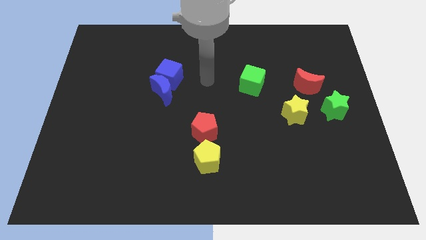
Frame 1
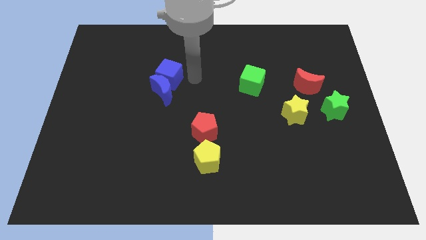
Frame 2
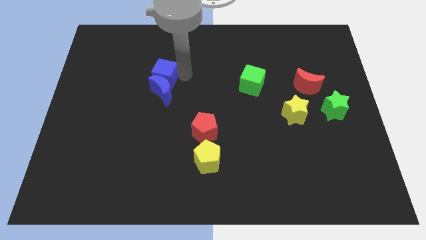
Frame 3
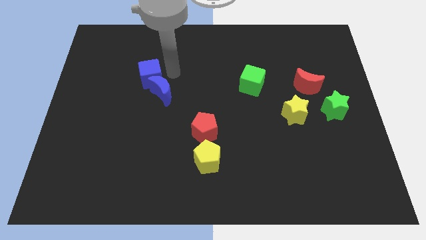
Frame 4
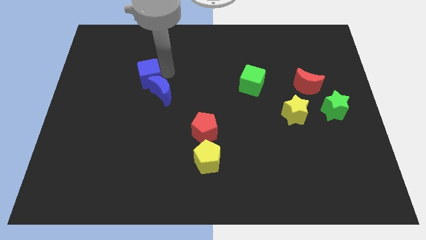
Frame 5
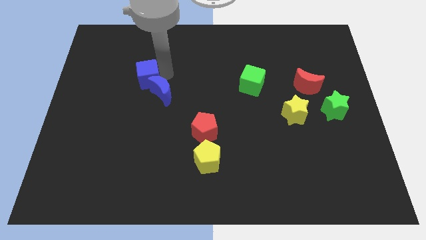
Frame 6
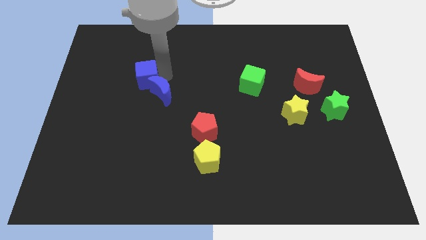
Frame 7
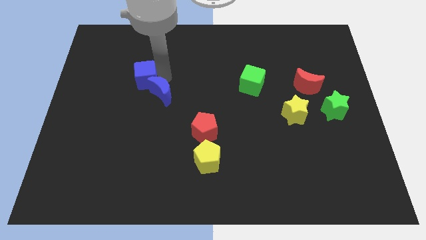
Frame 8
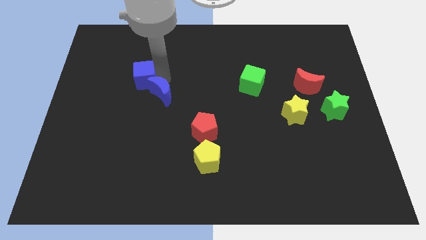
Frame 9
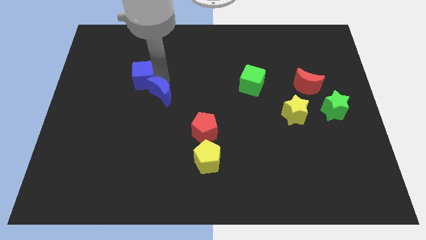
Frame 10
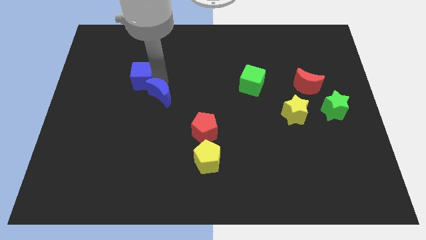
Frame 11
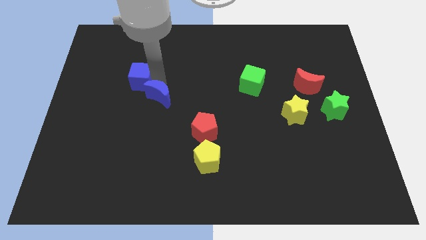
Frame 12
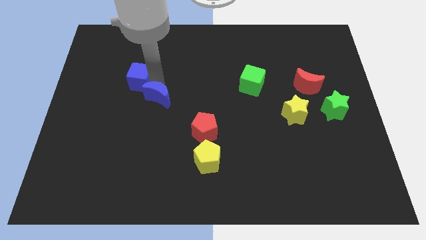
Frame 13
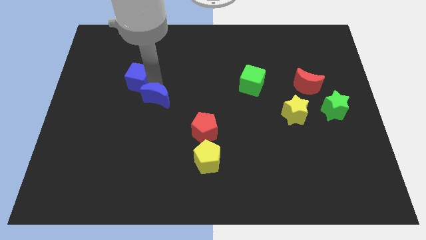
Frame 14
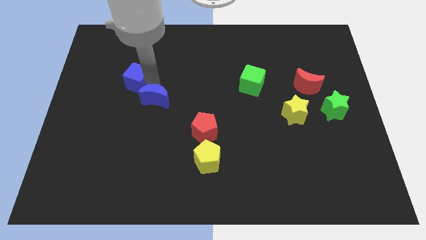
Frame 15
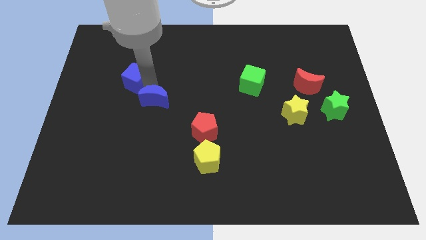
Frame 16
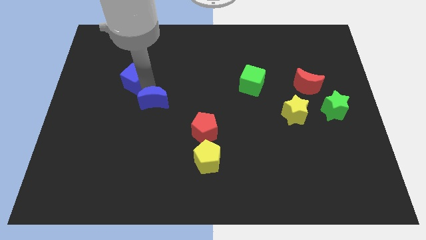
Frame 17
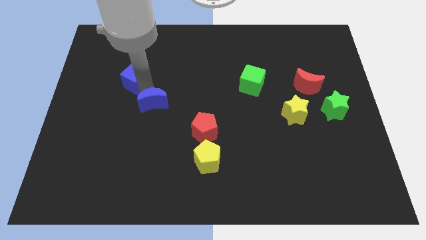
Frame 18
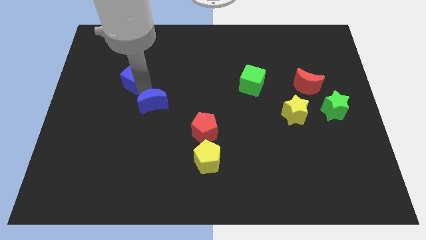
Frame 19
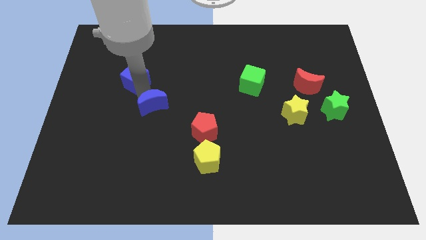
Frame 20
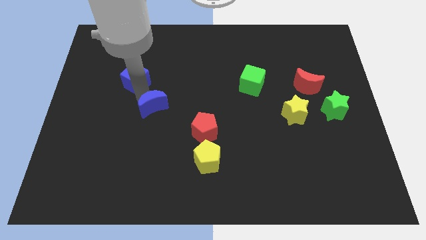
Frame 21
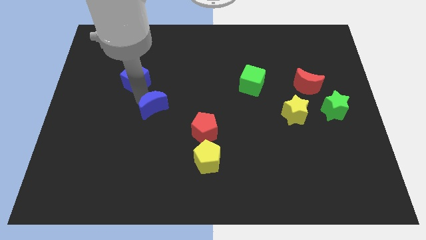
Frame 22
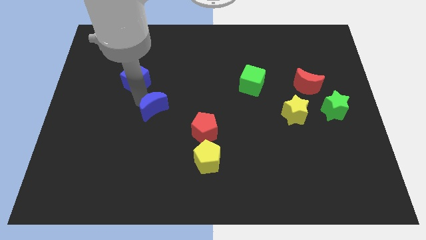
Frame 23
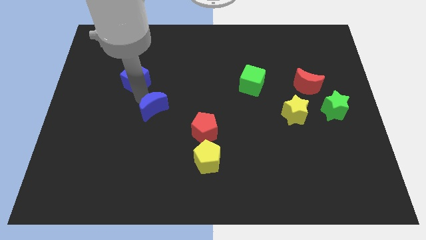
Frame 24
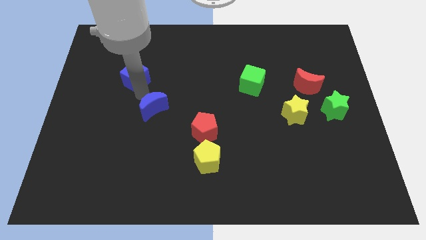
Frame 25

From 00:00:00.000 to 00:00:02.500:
move the blue moon away from the blue cube

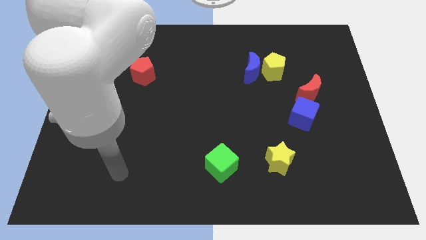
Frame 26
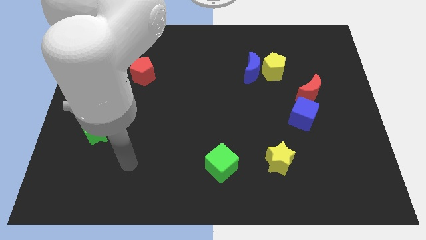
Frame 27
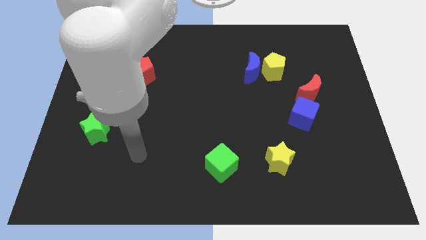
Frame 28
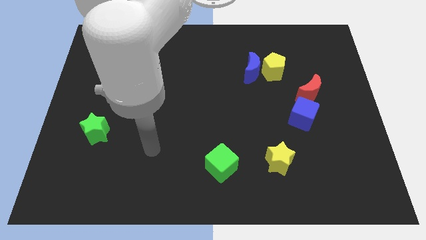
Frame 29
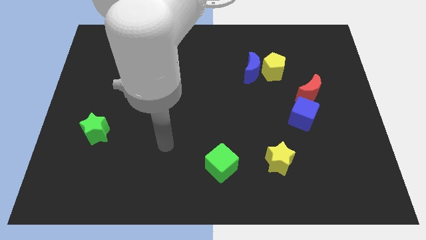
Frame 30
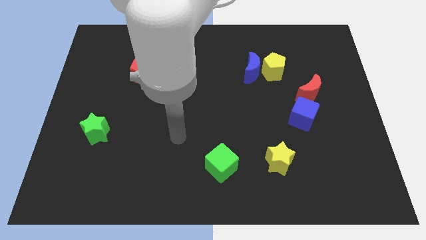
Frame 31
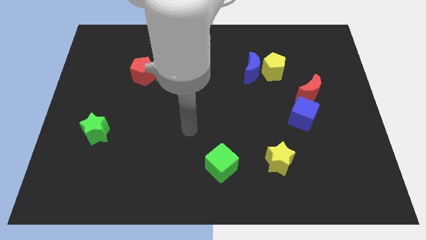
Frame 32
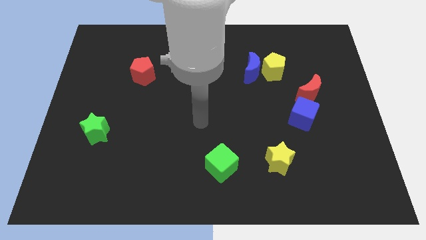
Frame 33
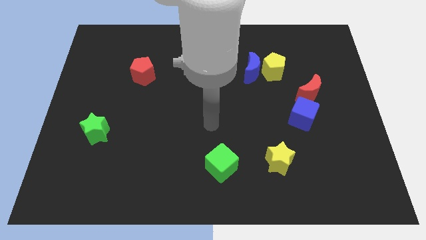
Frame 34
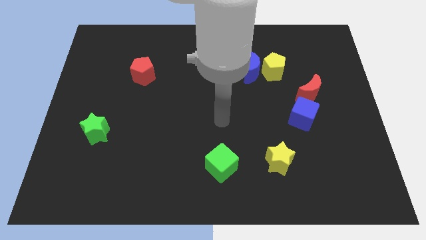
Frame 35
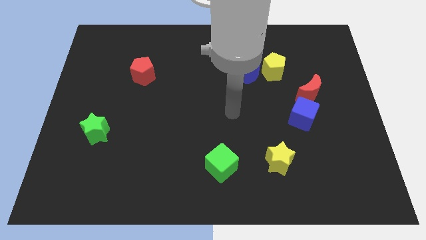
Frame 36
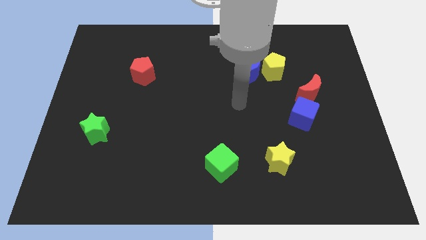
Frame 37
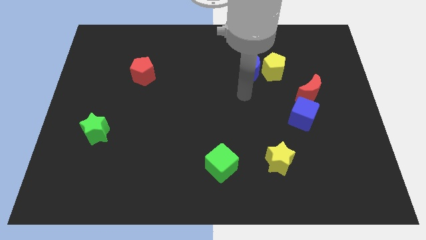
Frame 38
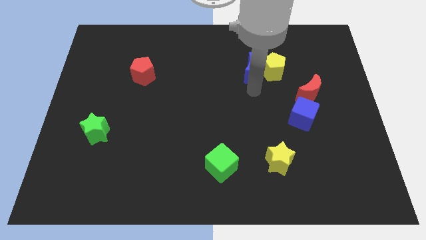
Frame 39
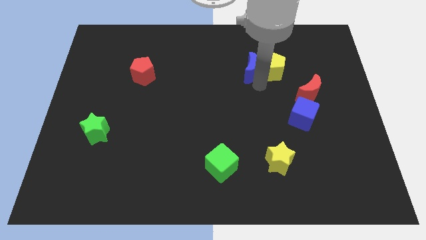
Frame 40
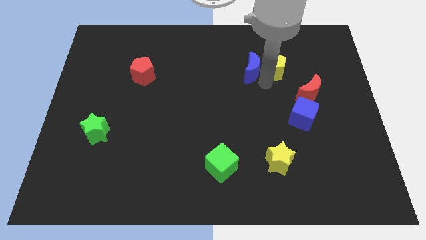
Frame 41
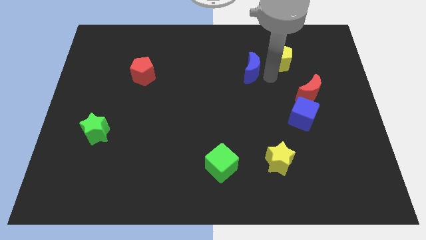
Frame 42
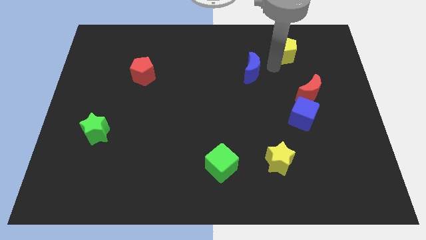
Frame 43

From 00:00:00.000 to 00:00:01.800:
separate the blue moon from the yellow pentagon

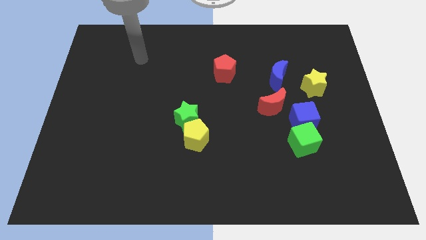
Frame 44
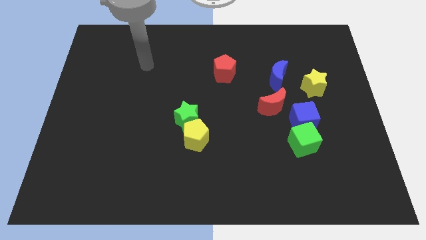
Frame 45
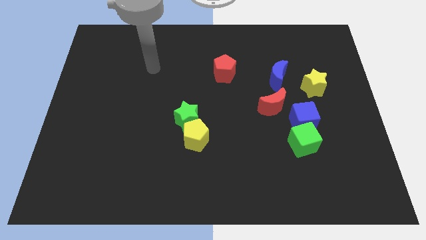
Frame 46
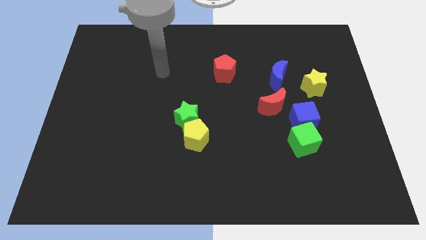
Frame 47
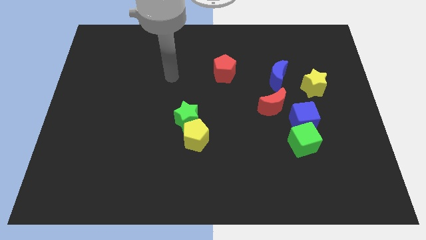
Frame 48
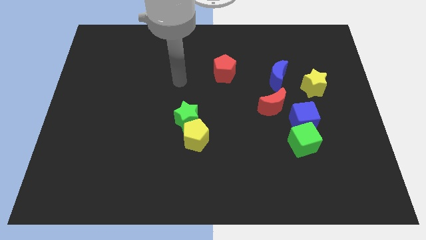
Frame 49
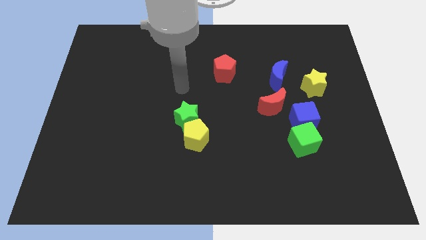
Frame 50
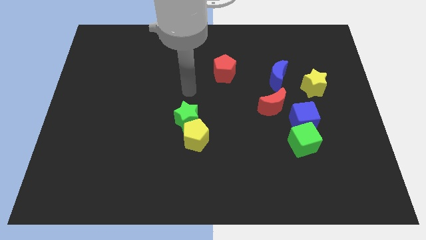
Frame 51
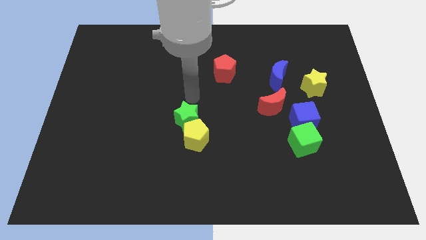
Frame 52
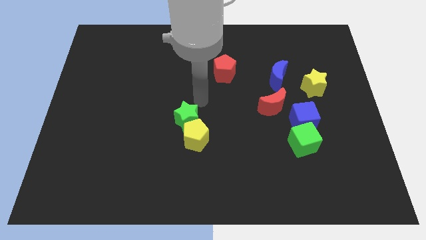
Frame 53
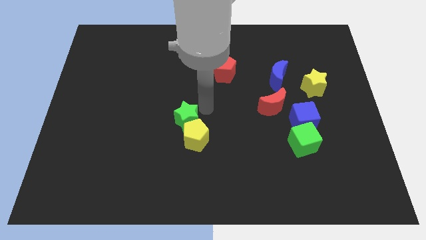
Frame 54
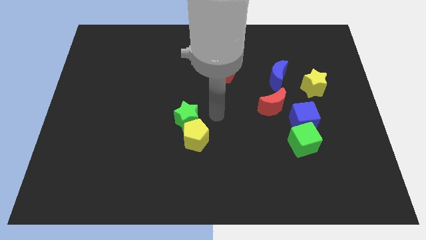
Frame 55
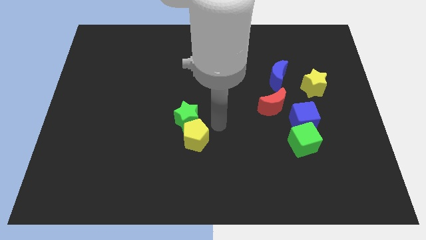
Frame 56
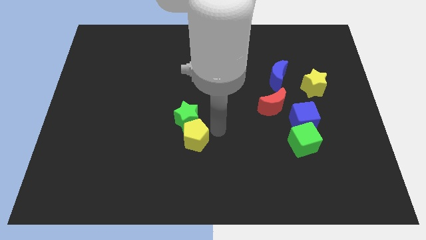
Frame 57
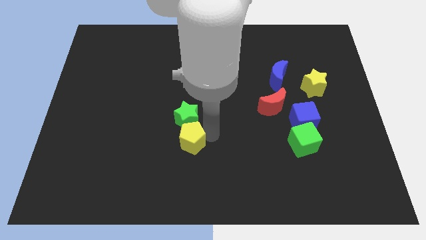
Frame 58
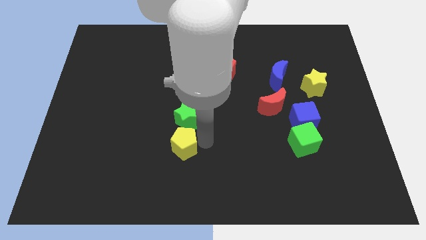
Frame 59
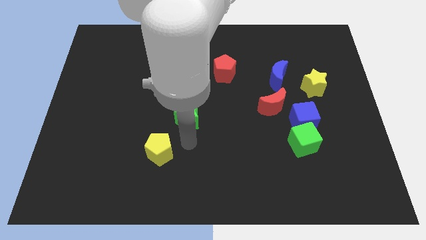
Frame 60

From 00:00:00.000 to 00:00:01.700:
move the green star away from the yellow pentagon

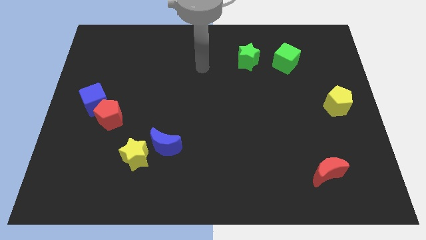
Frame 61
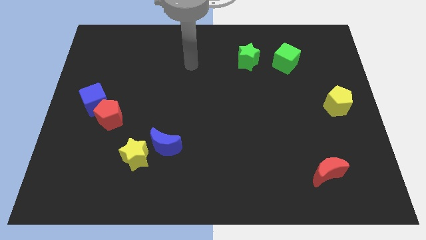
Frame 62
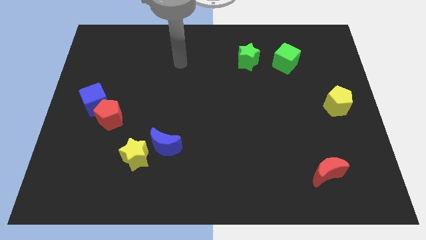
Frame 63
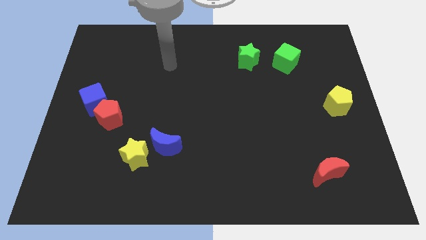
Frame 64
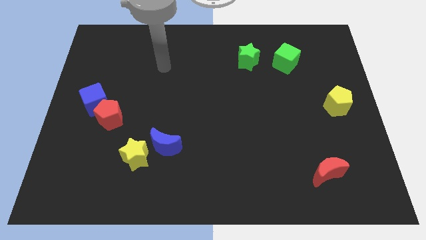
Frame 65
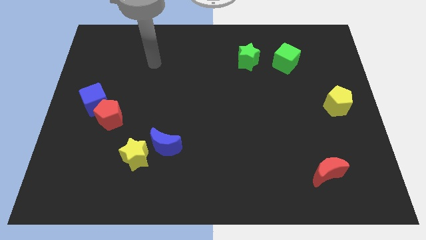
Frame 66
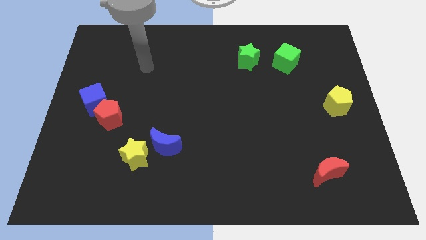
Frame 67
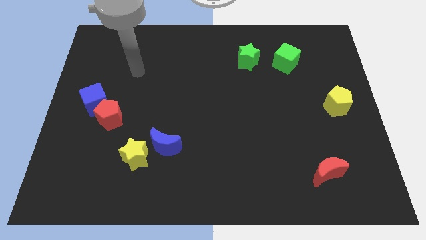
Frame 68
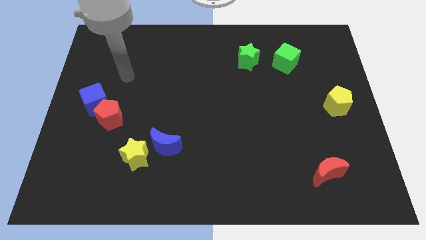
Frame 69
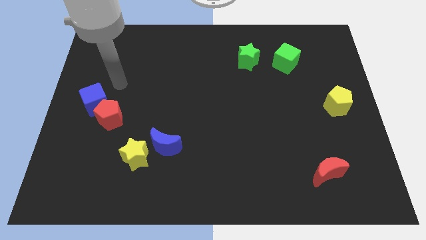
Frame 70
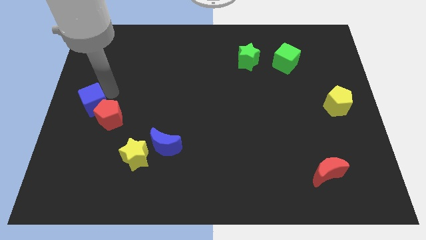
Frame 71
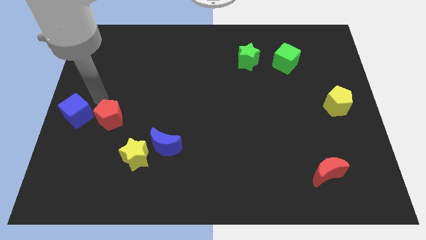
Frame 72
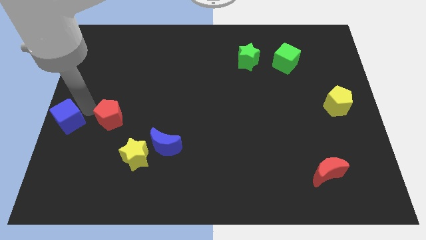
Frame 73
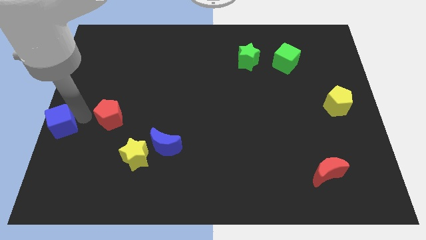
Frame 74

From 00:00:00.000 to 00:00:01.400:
move the red pentagon away from the blue cube

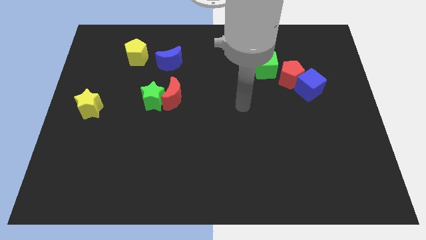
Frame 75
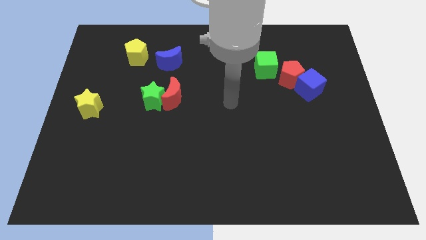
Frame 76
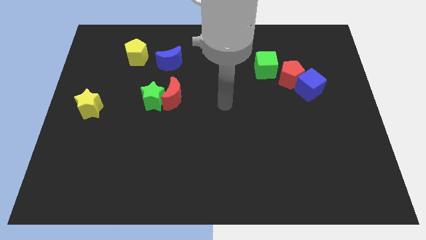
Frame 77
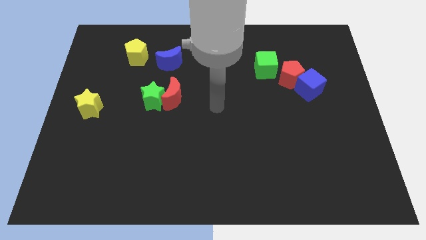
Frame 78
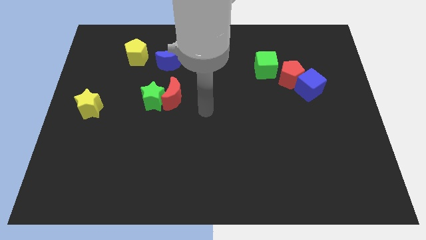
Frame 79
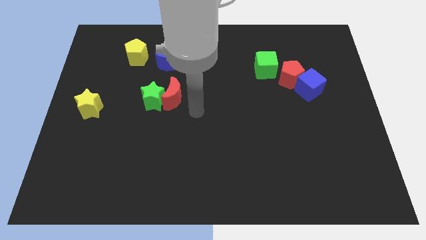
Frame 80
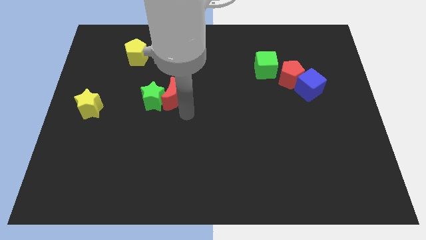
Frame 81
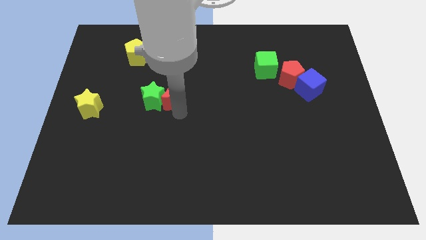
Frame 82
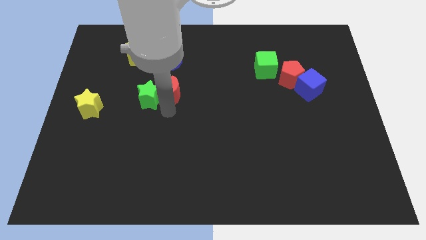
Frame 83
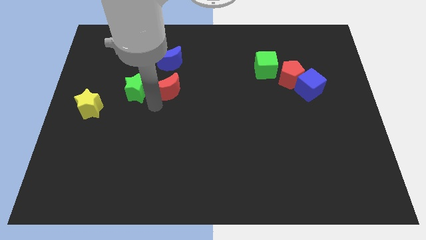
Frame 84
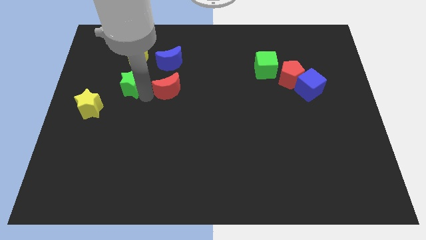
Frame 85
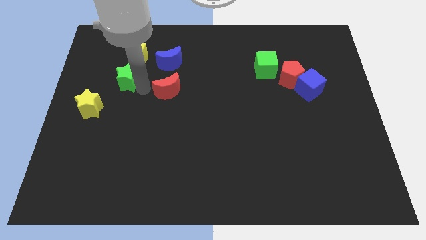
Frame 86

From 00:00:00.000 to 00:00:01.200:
pull the red moon apart from the green star

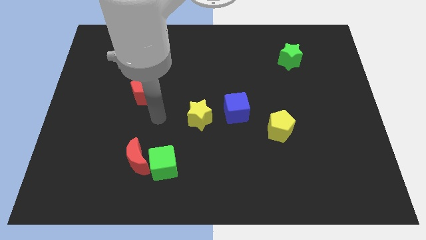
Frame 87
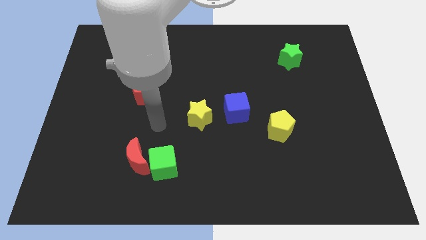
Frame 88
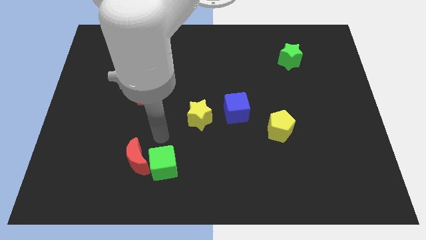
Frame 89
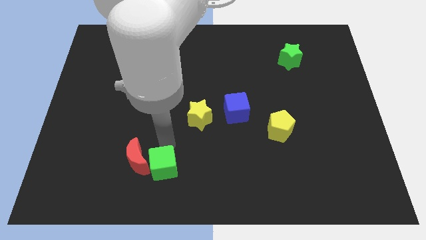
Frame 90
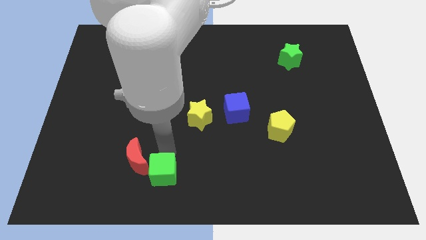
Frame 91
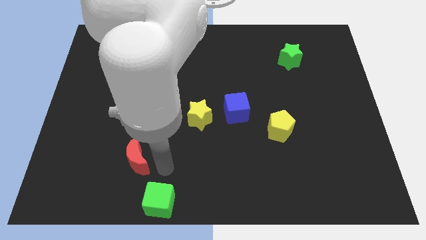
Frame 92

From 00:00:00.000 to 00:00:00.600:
separate the red moon from the green cube

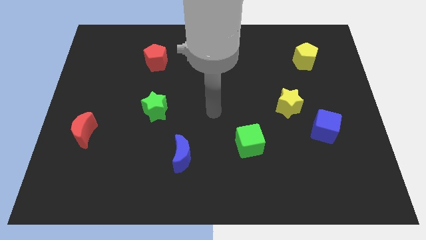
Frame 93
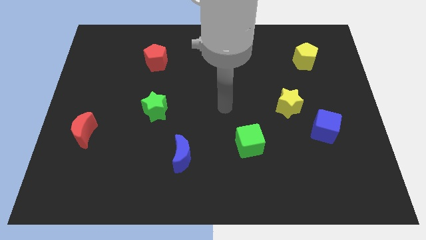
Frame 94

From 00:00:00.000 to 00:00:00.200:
pull the blue cube apart from the yellow star
